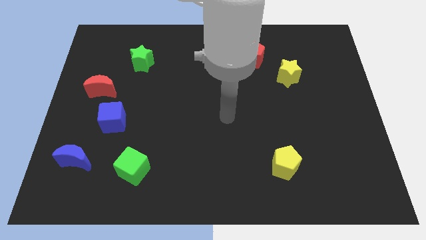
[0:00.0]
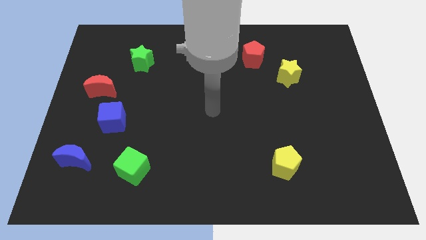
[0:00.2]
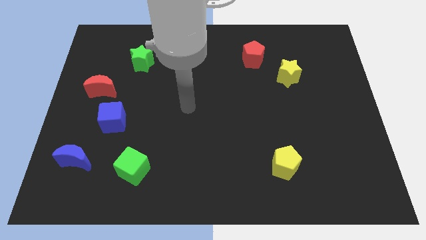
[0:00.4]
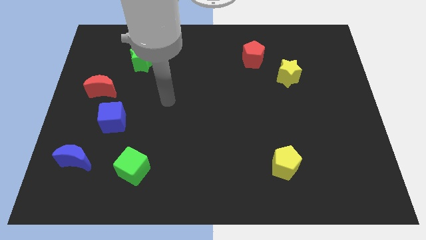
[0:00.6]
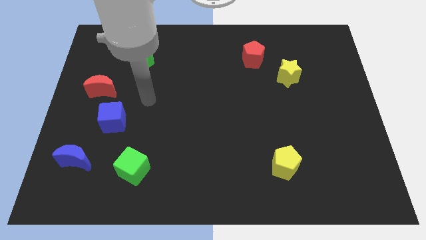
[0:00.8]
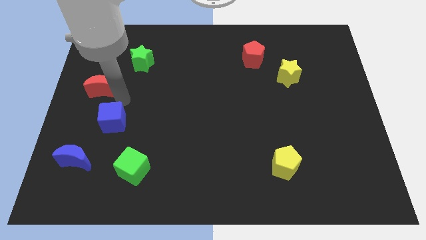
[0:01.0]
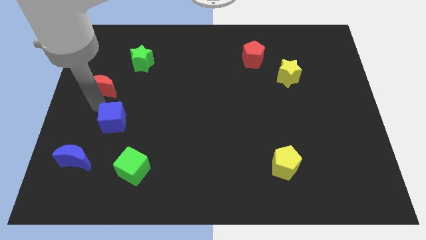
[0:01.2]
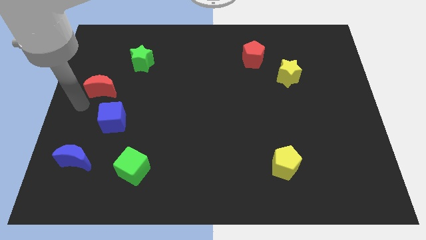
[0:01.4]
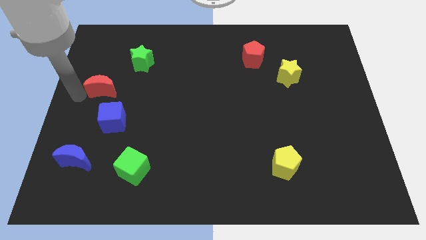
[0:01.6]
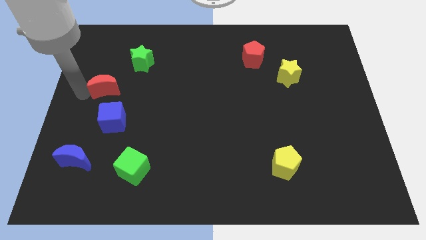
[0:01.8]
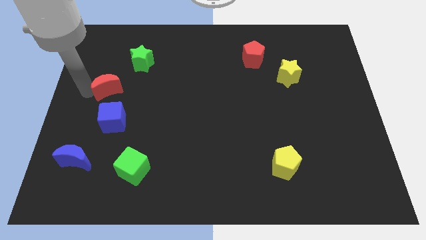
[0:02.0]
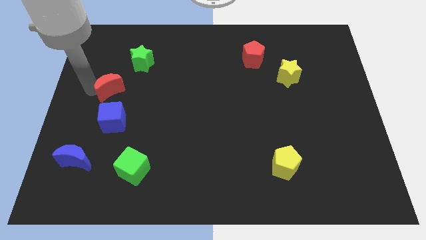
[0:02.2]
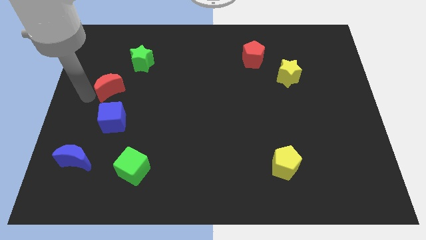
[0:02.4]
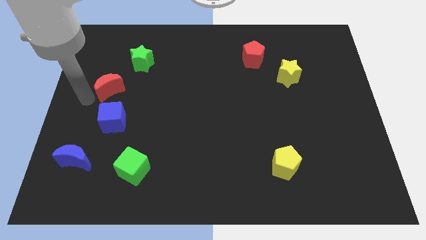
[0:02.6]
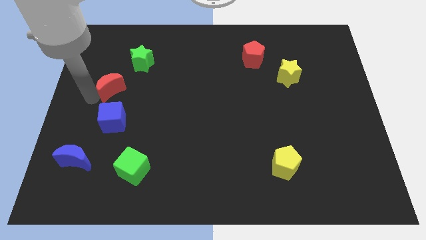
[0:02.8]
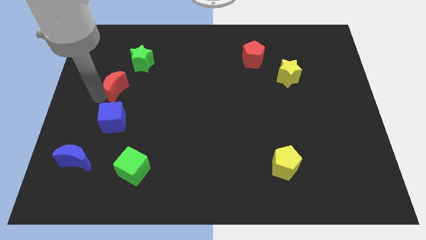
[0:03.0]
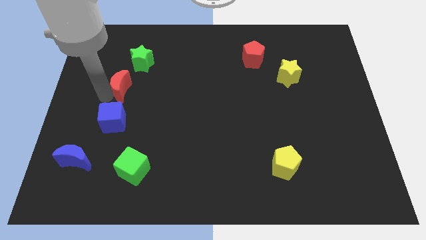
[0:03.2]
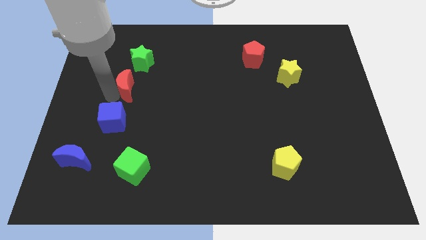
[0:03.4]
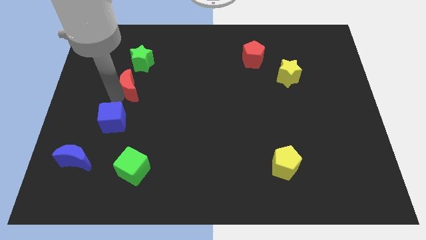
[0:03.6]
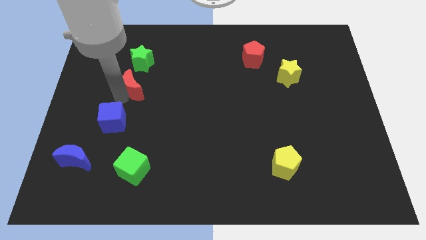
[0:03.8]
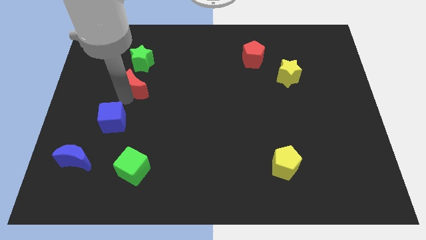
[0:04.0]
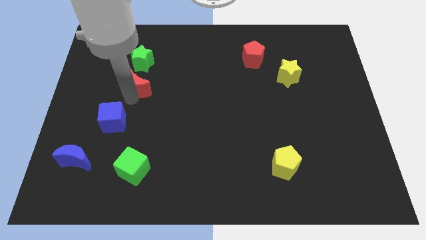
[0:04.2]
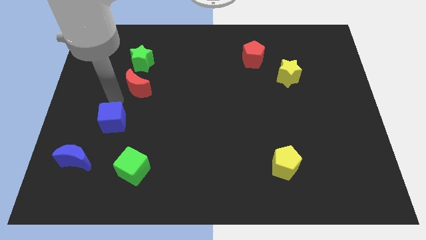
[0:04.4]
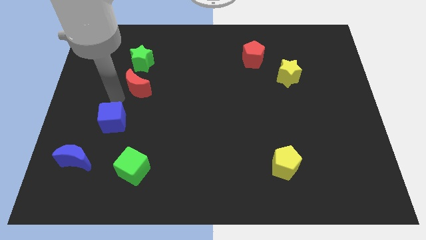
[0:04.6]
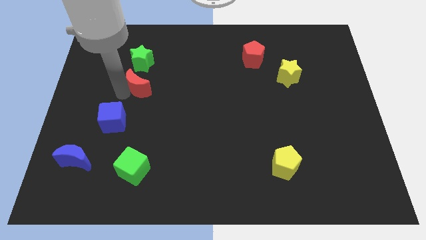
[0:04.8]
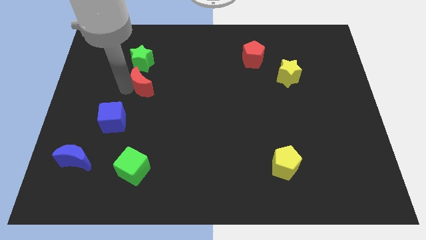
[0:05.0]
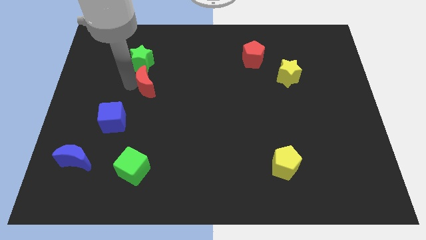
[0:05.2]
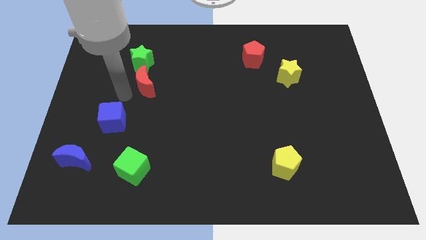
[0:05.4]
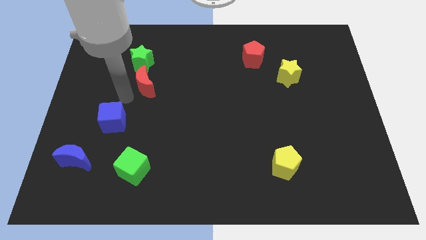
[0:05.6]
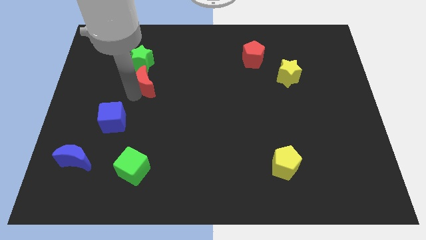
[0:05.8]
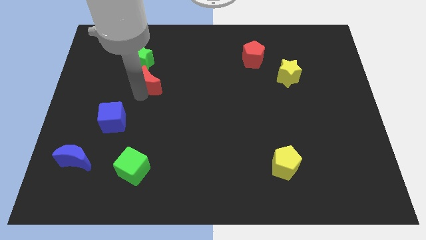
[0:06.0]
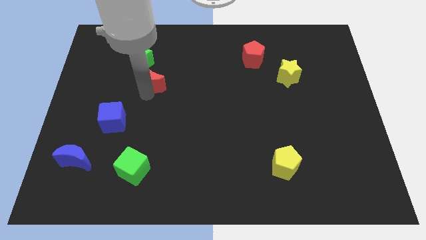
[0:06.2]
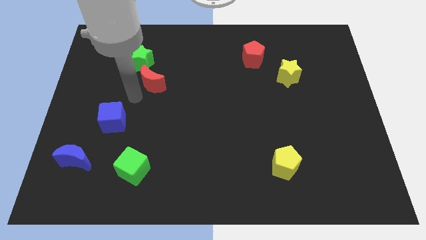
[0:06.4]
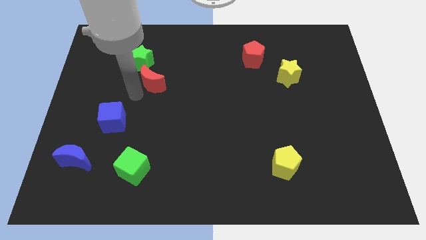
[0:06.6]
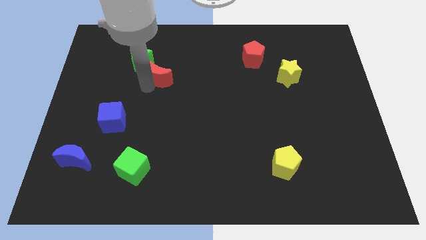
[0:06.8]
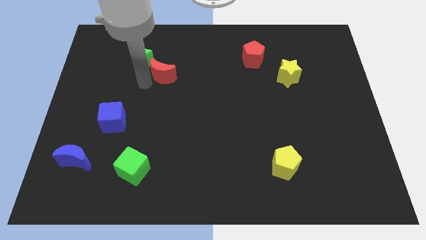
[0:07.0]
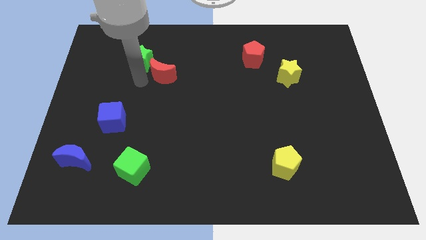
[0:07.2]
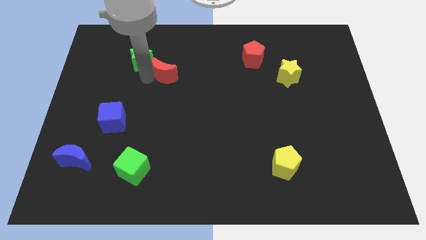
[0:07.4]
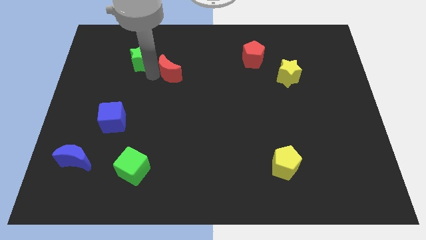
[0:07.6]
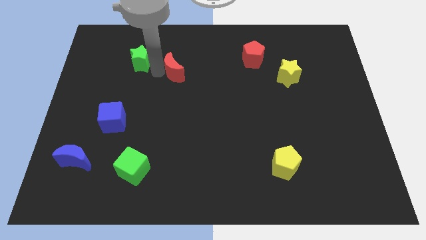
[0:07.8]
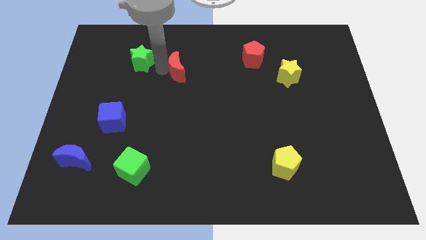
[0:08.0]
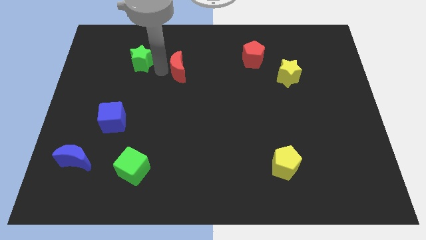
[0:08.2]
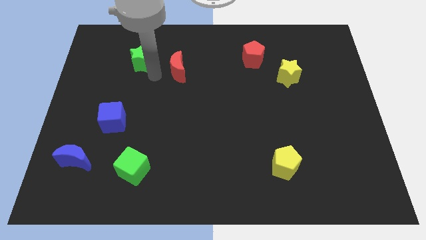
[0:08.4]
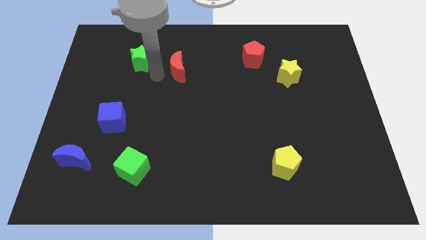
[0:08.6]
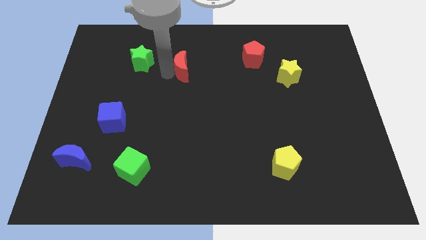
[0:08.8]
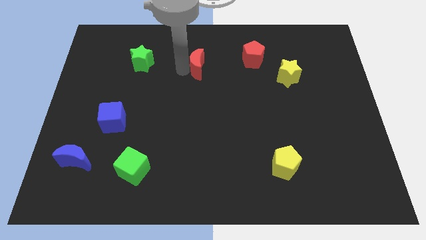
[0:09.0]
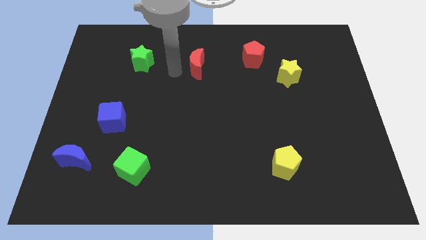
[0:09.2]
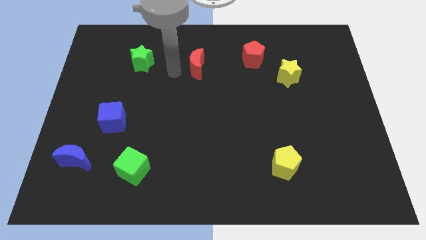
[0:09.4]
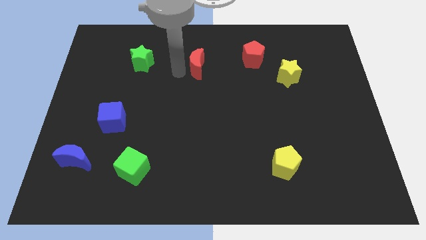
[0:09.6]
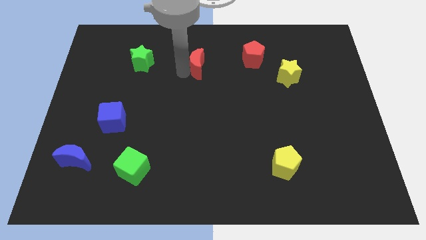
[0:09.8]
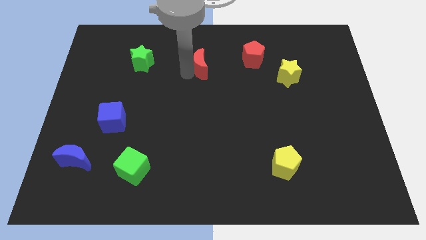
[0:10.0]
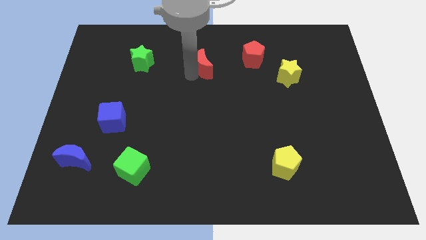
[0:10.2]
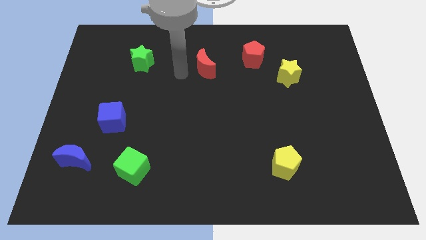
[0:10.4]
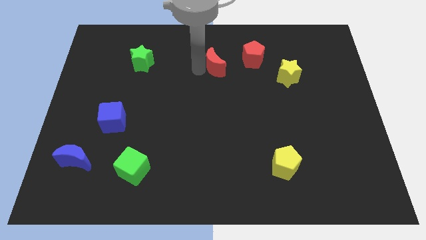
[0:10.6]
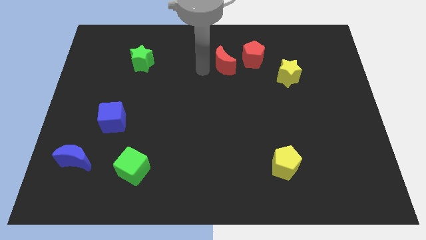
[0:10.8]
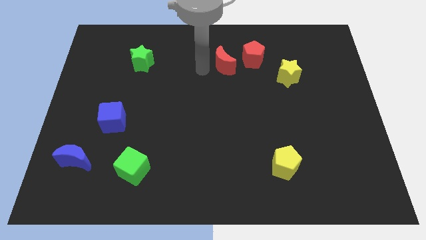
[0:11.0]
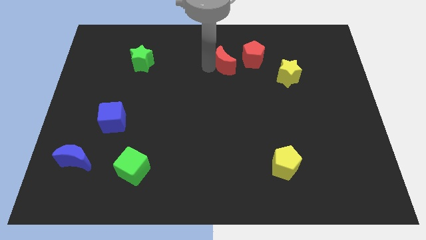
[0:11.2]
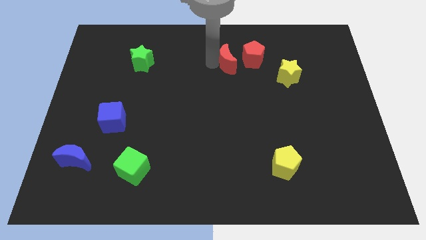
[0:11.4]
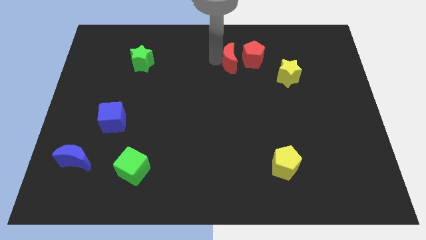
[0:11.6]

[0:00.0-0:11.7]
put the red moon towards the red pentagon

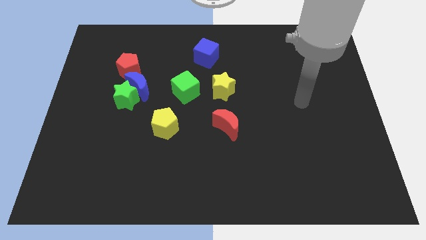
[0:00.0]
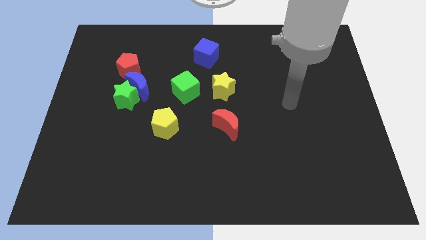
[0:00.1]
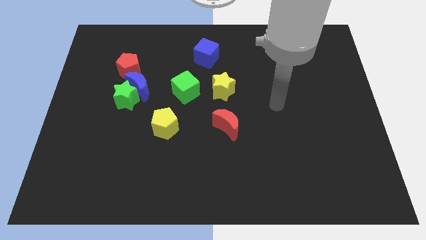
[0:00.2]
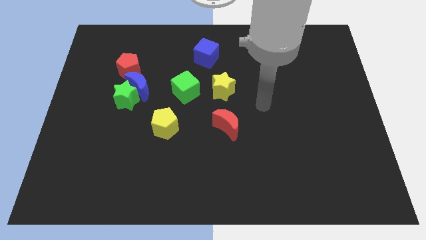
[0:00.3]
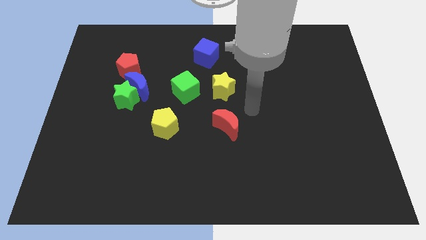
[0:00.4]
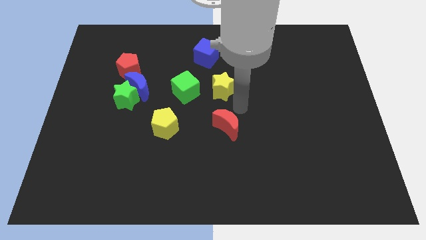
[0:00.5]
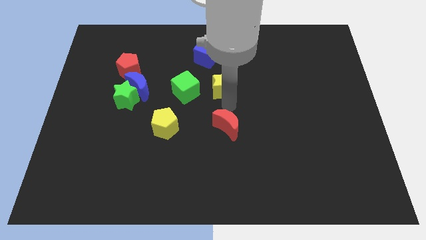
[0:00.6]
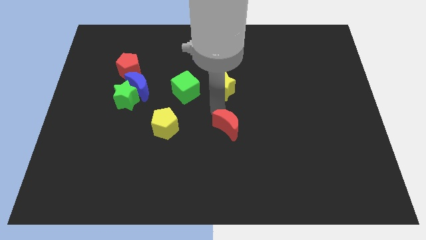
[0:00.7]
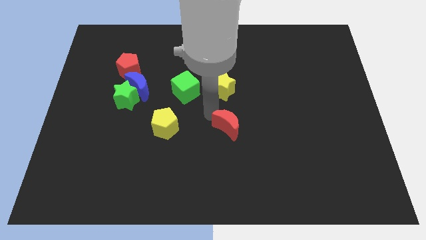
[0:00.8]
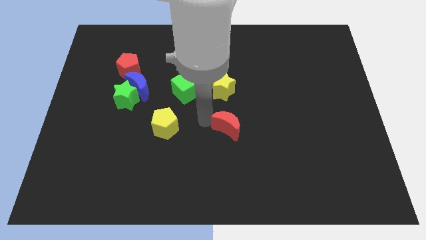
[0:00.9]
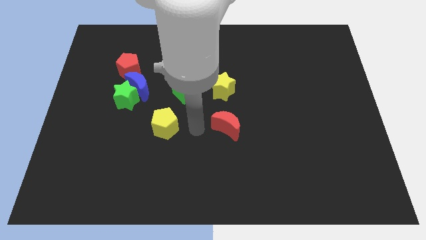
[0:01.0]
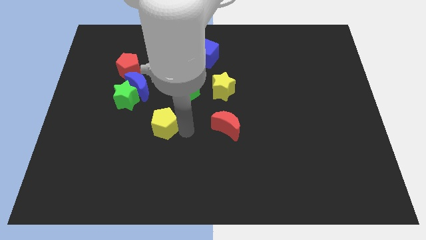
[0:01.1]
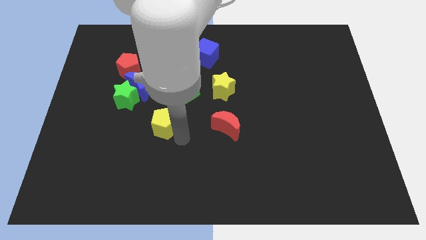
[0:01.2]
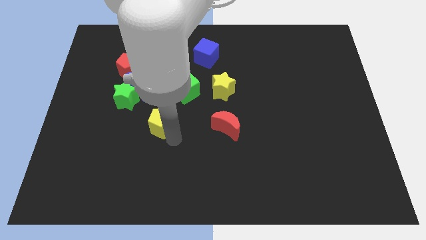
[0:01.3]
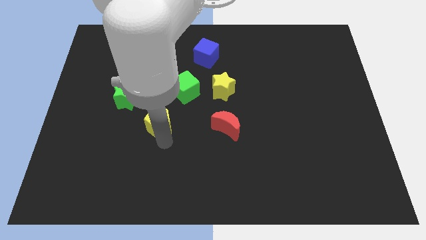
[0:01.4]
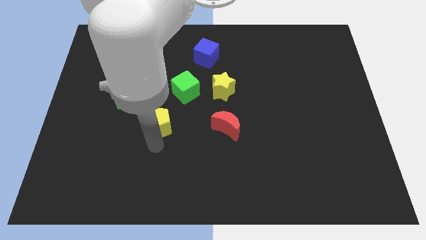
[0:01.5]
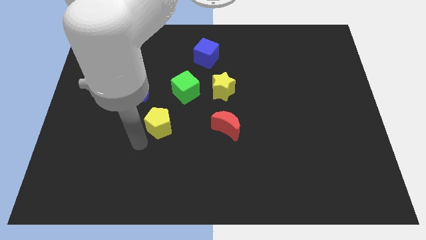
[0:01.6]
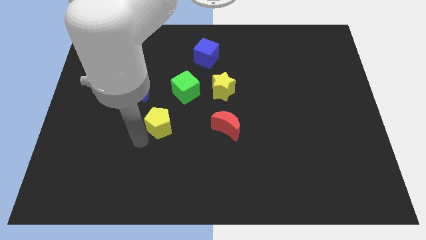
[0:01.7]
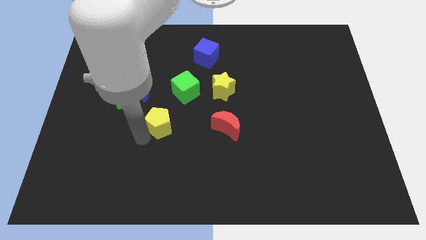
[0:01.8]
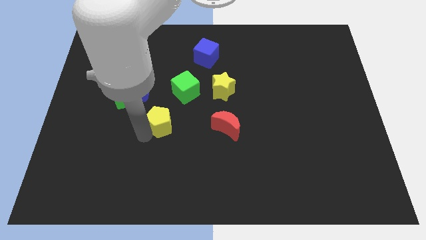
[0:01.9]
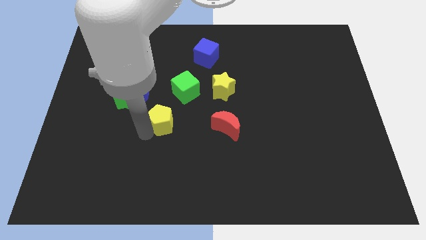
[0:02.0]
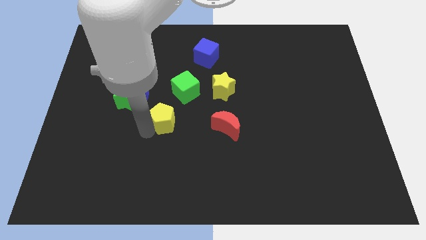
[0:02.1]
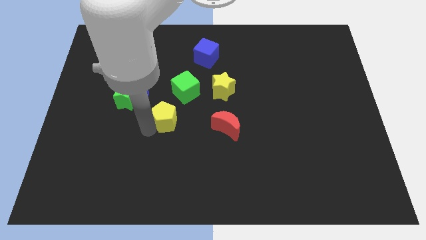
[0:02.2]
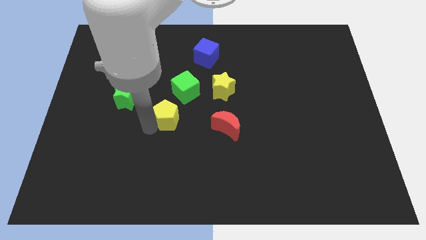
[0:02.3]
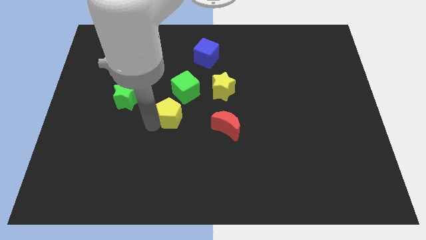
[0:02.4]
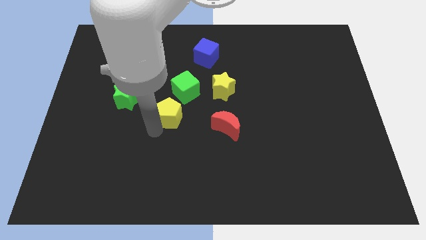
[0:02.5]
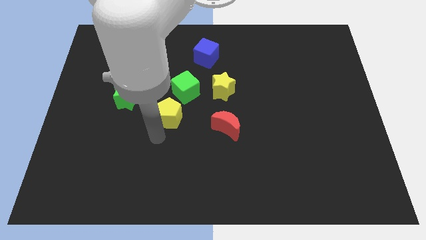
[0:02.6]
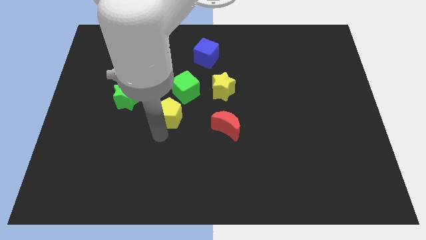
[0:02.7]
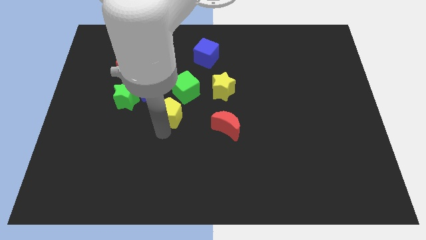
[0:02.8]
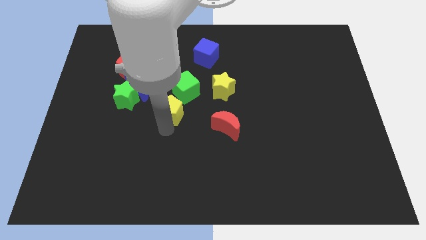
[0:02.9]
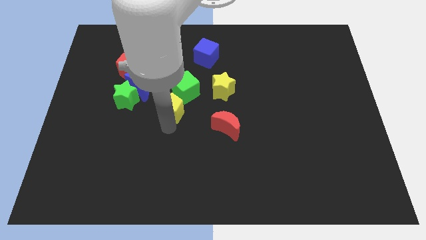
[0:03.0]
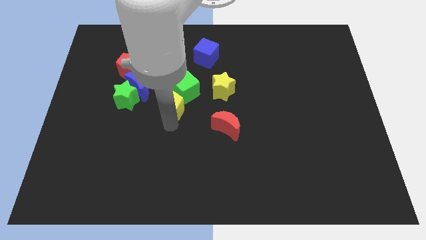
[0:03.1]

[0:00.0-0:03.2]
slide the yellow pentagon next to the green cube
